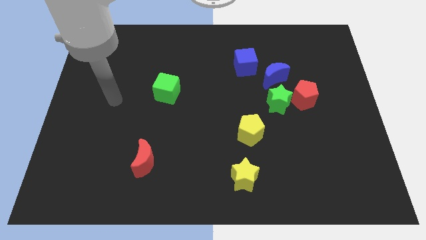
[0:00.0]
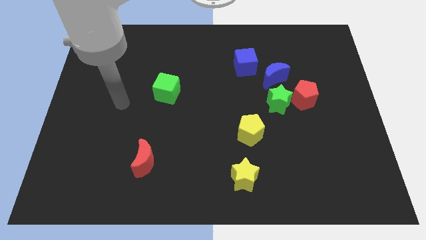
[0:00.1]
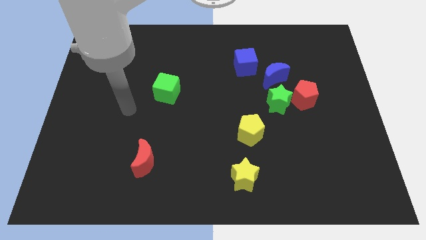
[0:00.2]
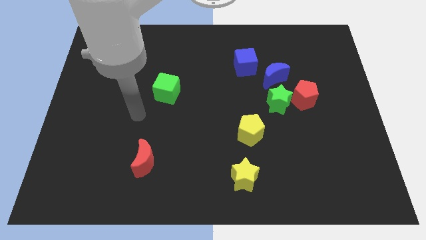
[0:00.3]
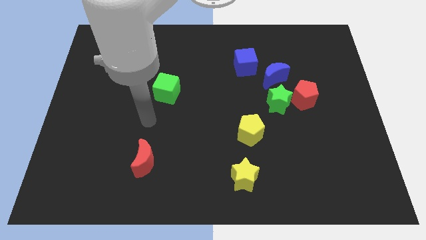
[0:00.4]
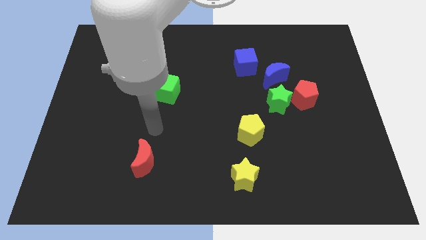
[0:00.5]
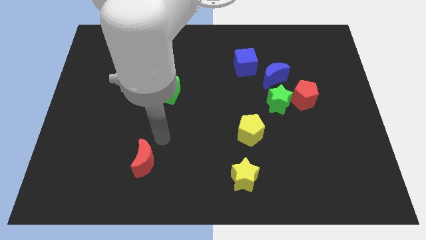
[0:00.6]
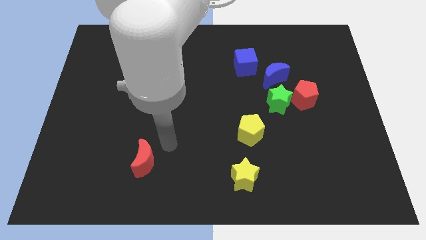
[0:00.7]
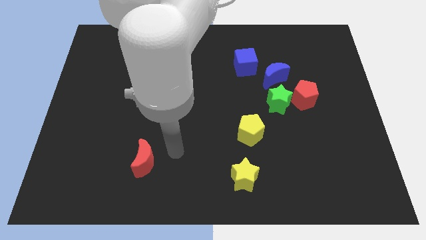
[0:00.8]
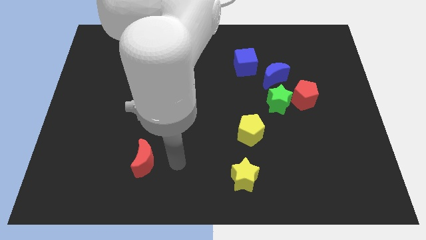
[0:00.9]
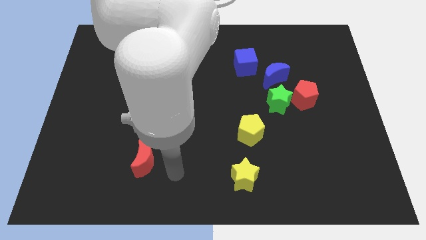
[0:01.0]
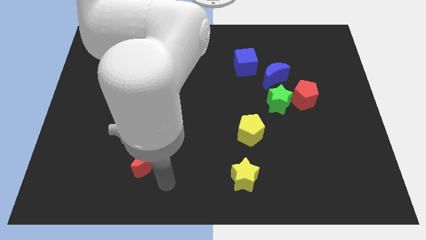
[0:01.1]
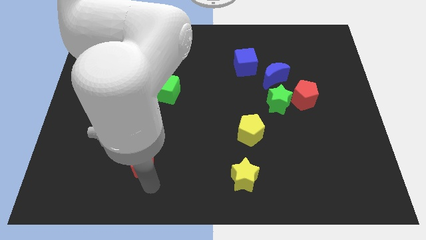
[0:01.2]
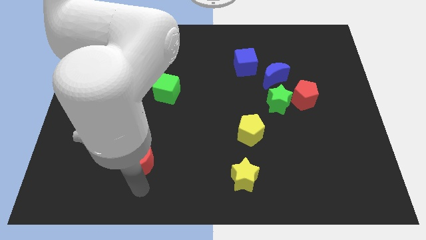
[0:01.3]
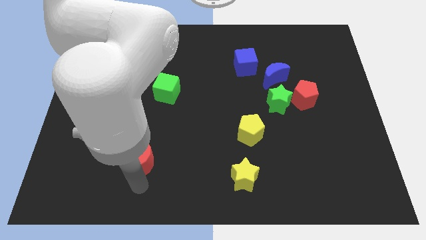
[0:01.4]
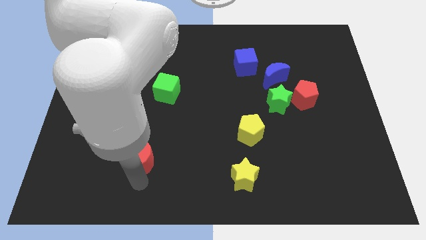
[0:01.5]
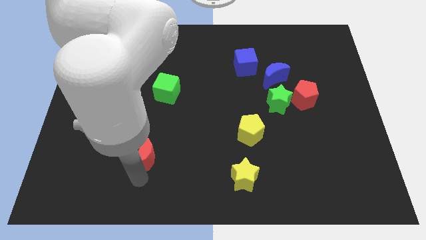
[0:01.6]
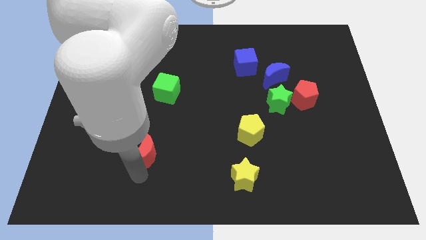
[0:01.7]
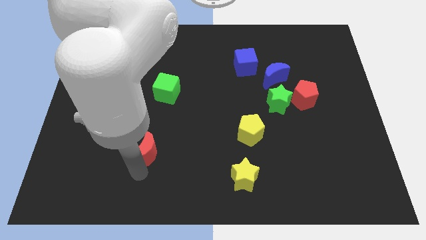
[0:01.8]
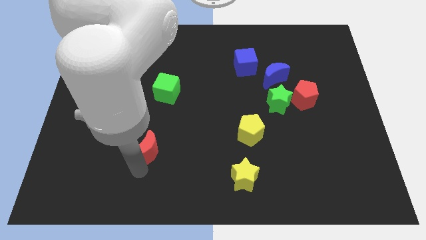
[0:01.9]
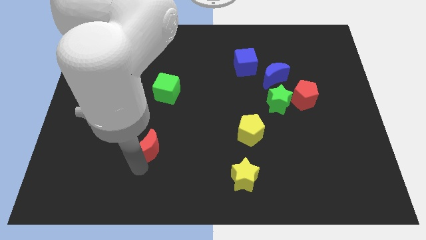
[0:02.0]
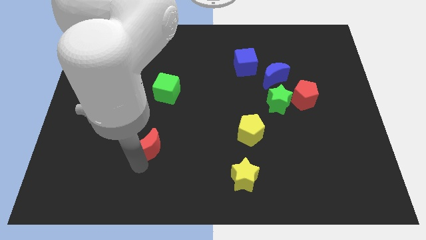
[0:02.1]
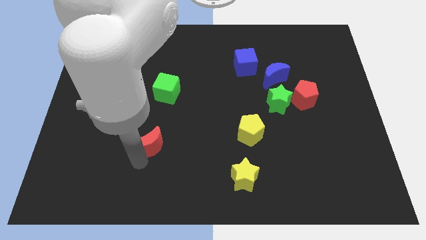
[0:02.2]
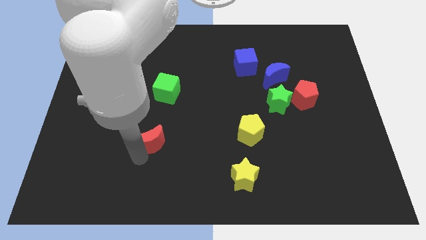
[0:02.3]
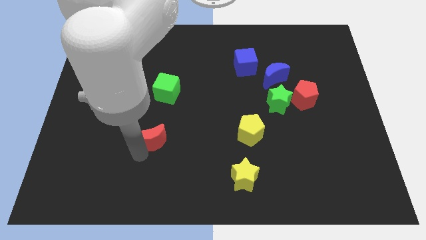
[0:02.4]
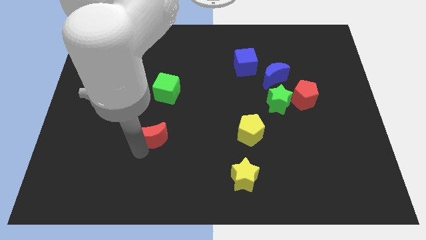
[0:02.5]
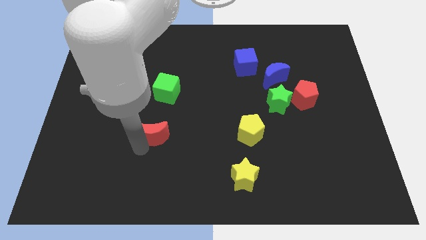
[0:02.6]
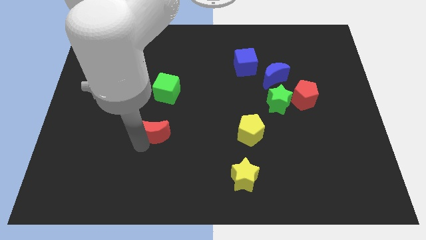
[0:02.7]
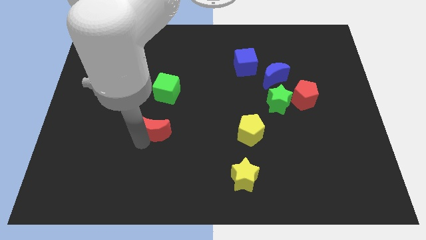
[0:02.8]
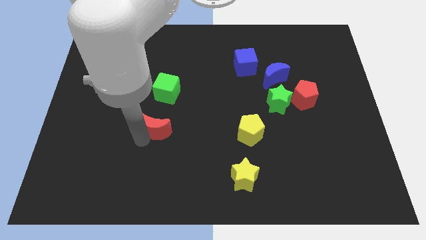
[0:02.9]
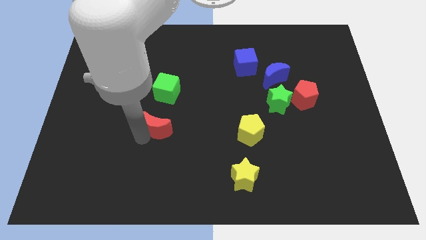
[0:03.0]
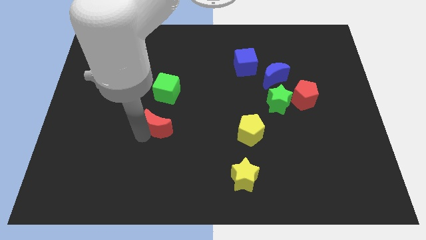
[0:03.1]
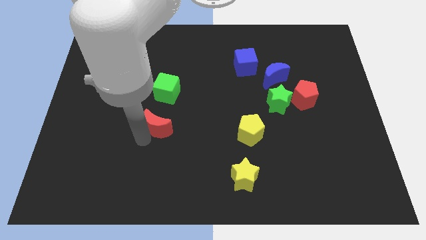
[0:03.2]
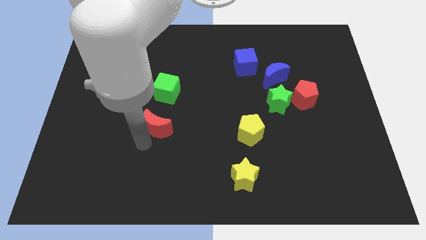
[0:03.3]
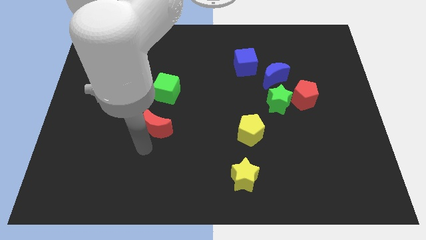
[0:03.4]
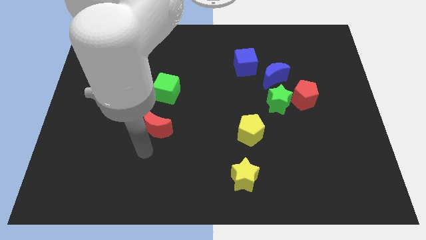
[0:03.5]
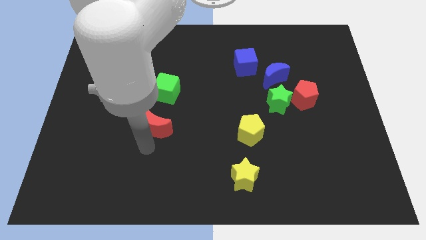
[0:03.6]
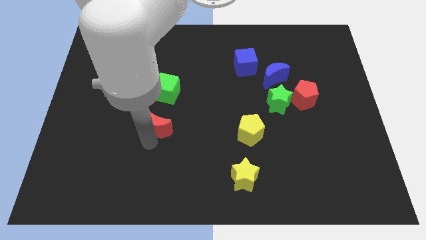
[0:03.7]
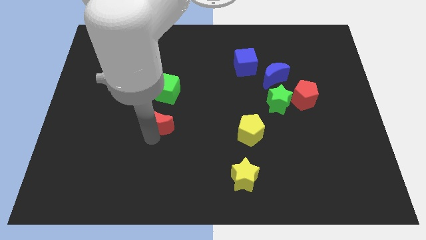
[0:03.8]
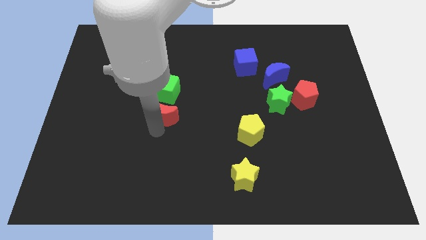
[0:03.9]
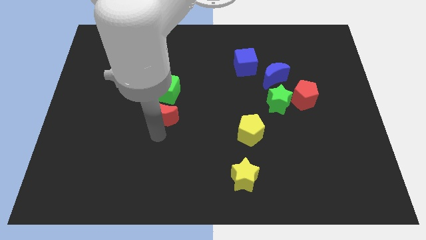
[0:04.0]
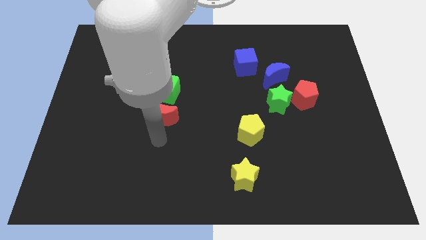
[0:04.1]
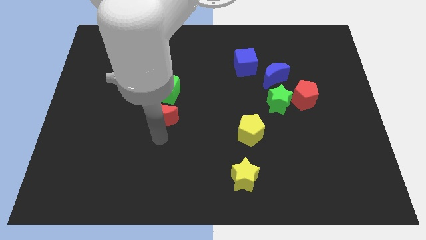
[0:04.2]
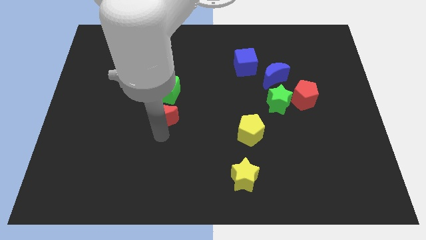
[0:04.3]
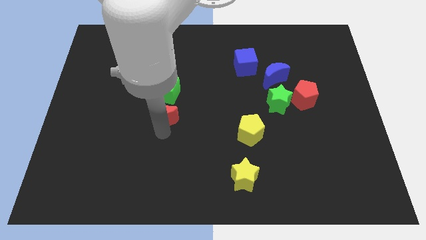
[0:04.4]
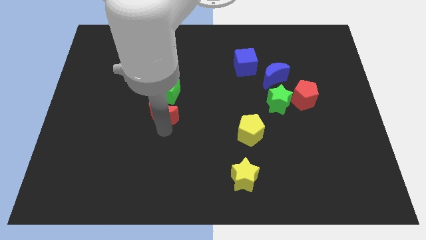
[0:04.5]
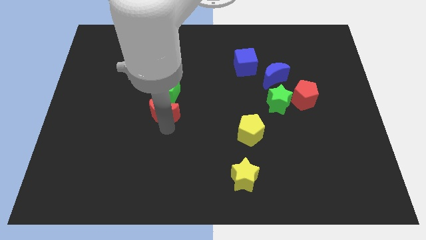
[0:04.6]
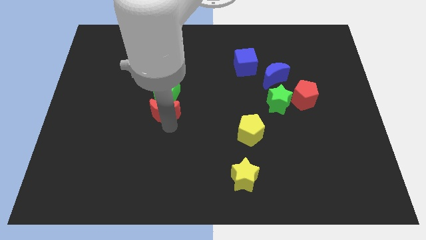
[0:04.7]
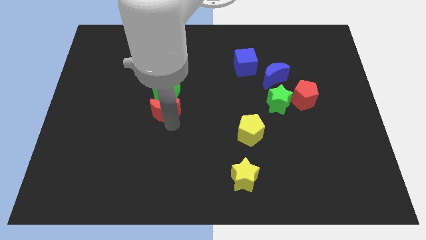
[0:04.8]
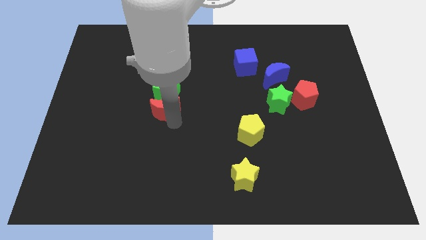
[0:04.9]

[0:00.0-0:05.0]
put the red moon next to the green cube

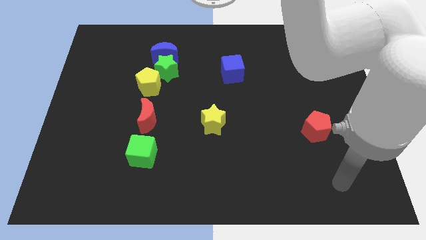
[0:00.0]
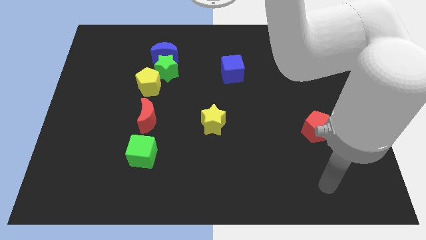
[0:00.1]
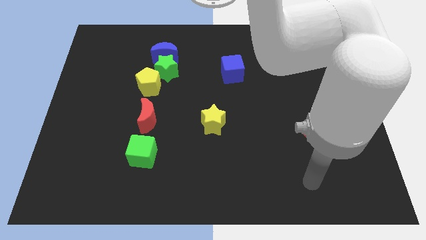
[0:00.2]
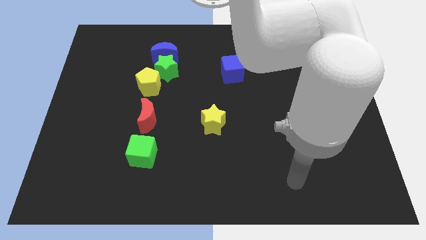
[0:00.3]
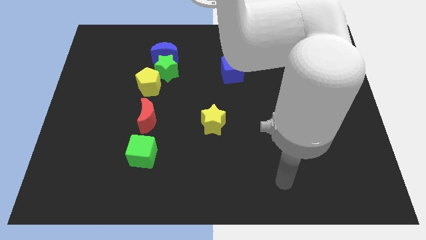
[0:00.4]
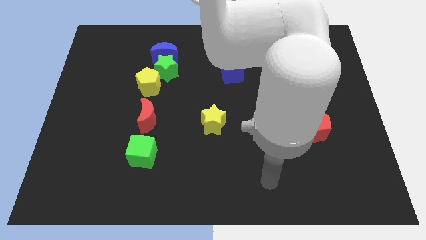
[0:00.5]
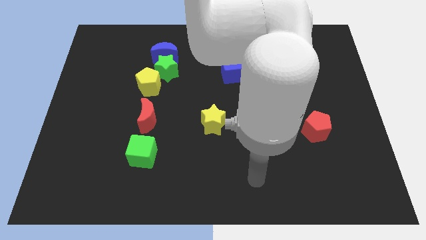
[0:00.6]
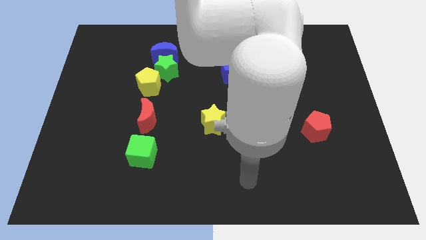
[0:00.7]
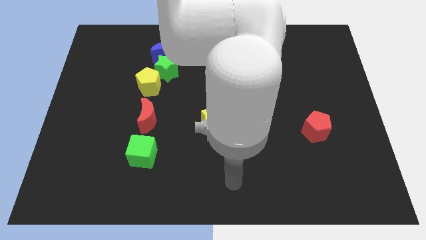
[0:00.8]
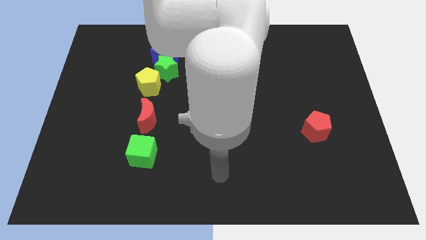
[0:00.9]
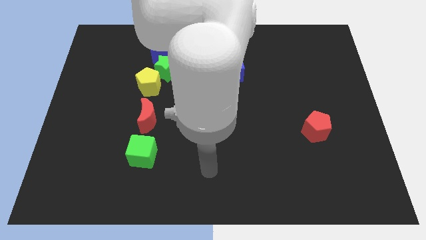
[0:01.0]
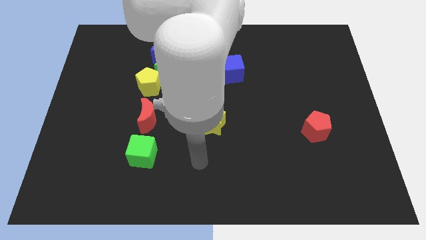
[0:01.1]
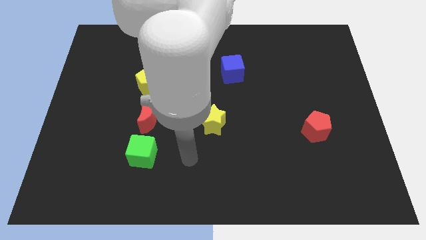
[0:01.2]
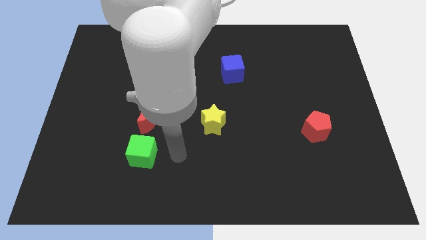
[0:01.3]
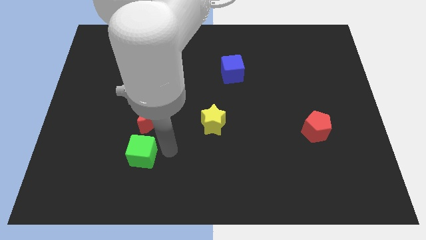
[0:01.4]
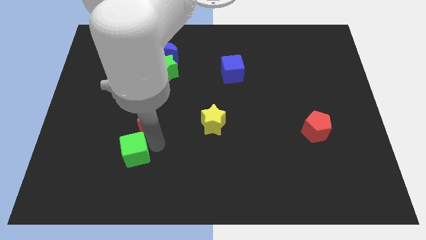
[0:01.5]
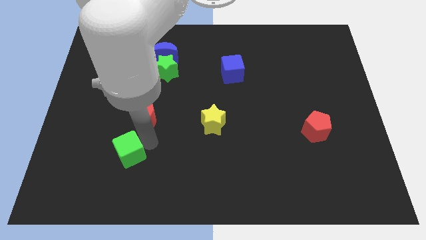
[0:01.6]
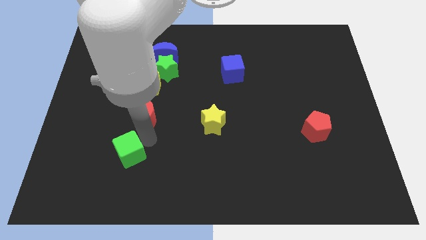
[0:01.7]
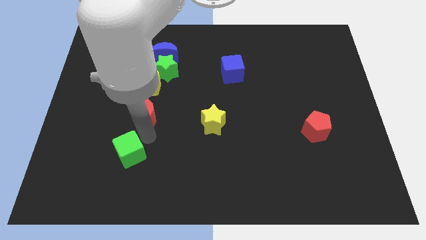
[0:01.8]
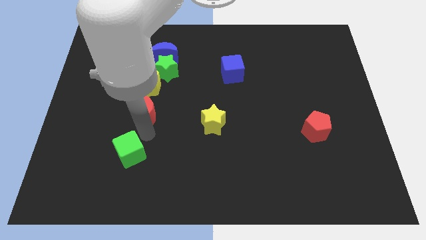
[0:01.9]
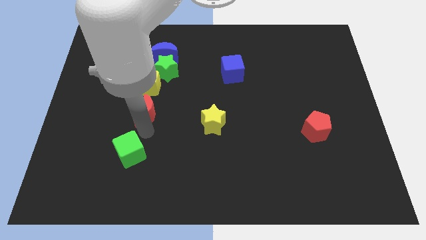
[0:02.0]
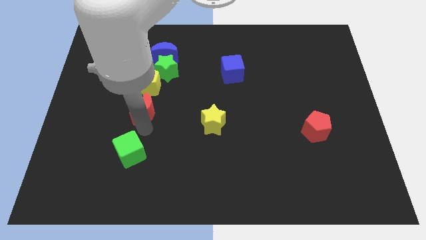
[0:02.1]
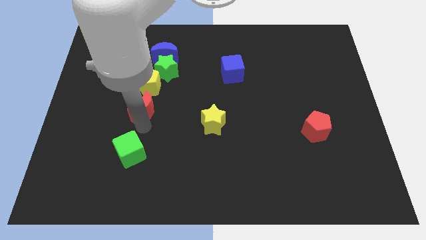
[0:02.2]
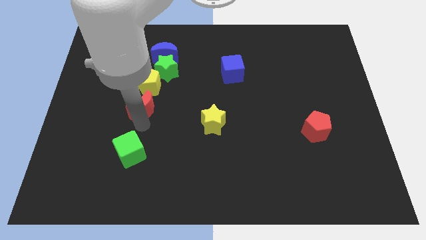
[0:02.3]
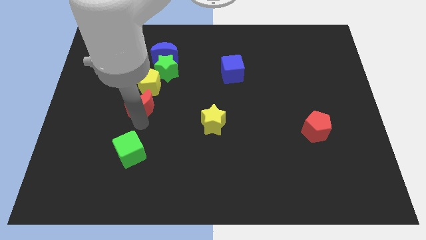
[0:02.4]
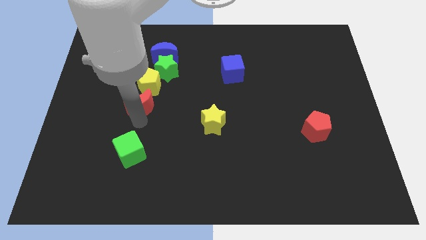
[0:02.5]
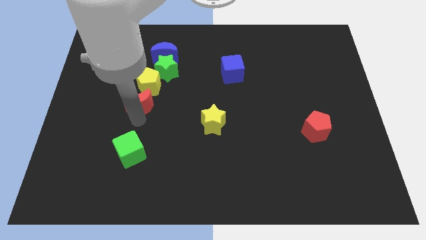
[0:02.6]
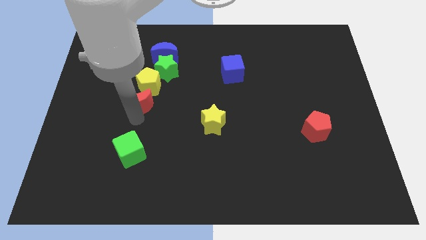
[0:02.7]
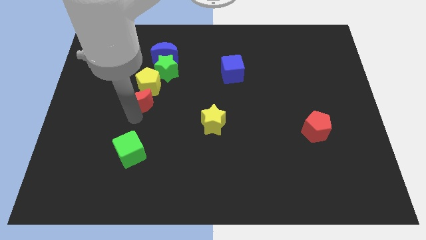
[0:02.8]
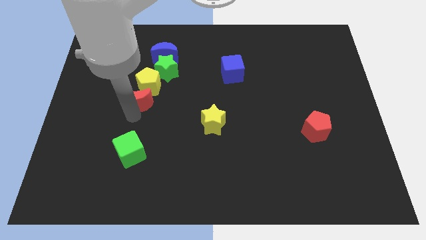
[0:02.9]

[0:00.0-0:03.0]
put the red moon close to the yellow pentagon

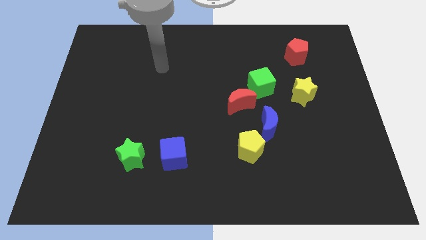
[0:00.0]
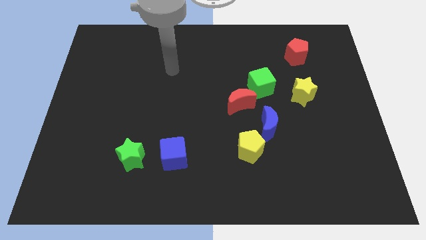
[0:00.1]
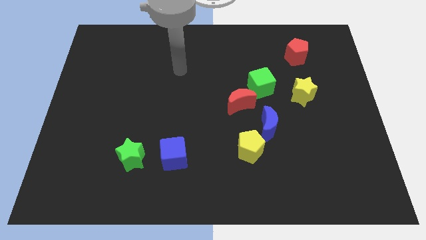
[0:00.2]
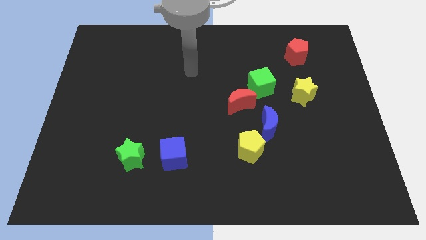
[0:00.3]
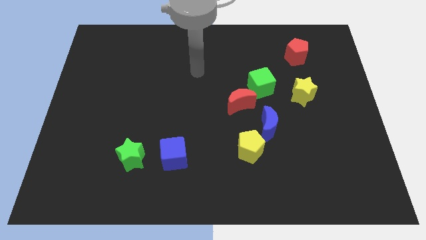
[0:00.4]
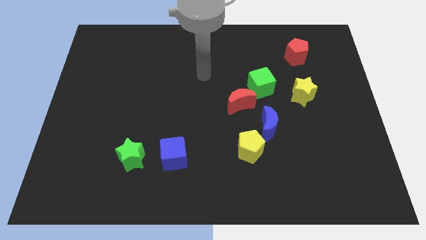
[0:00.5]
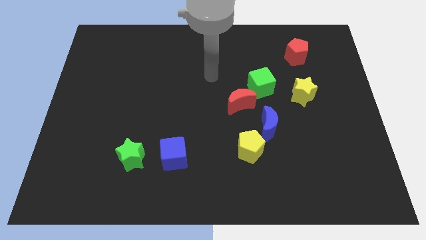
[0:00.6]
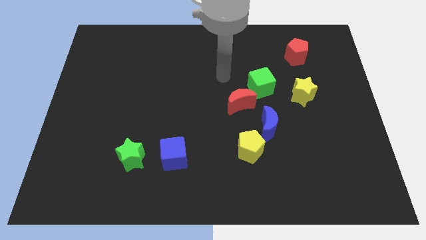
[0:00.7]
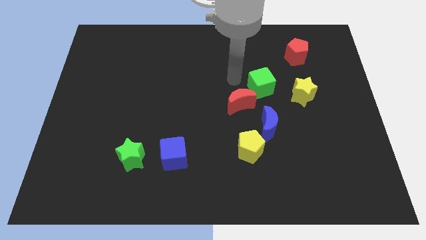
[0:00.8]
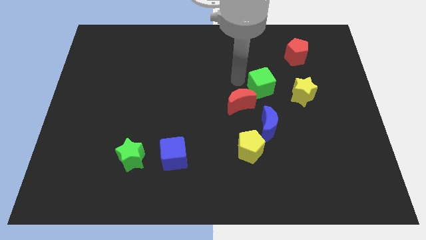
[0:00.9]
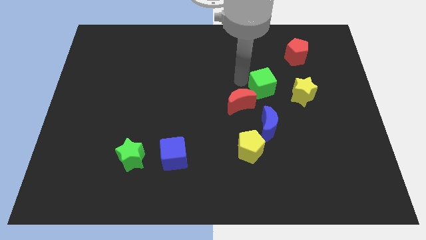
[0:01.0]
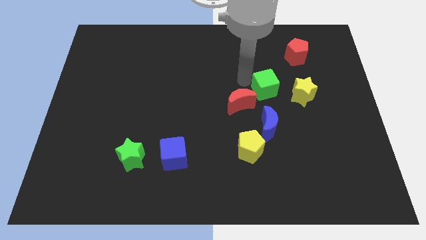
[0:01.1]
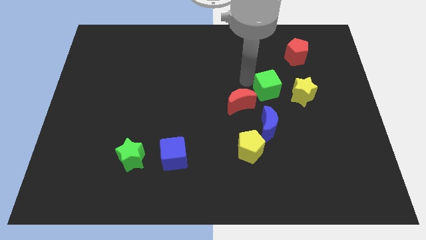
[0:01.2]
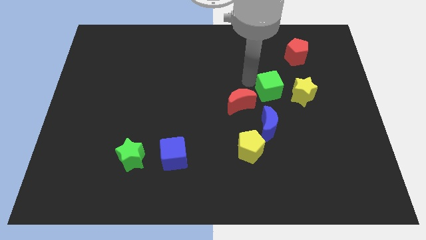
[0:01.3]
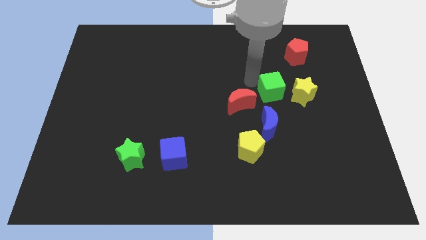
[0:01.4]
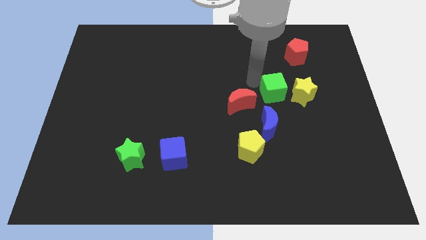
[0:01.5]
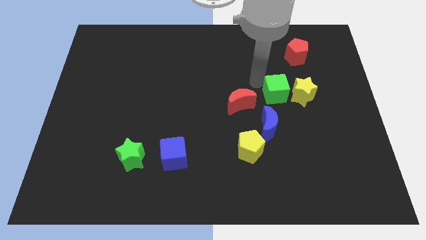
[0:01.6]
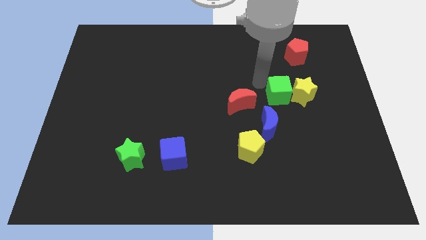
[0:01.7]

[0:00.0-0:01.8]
put the green cube close to the yellow star
